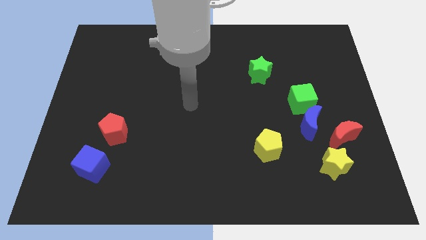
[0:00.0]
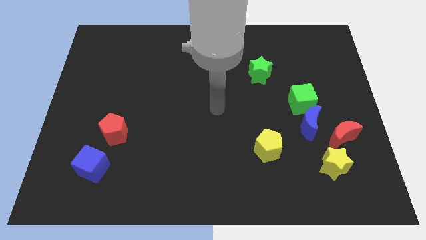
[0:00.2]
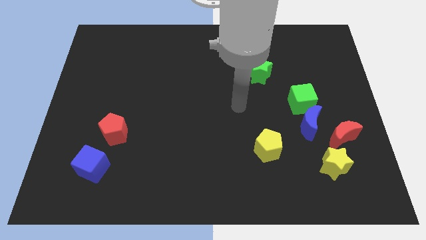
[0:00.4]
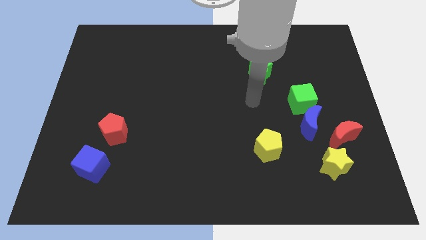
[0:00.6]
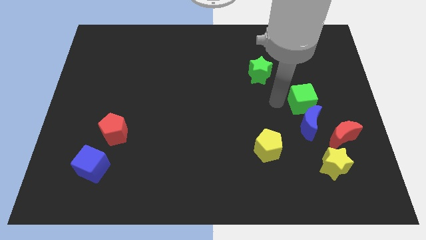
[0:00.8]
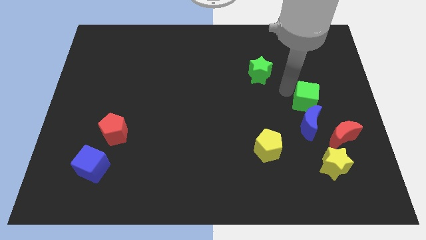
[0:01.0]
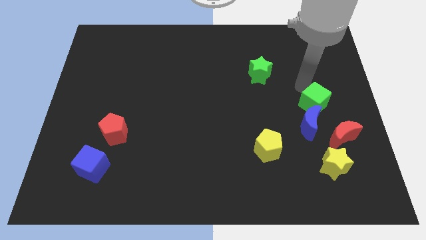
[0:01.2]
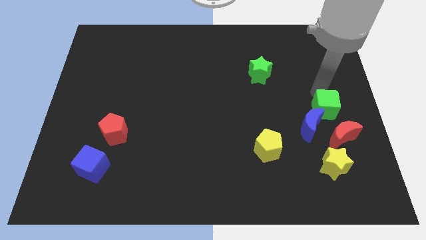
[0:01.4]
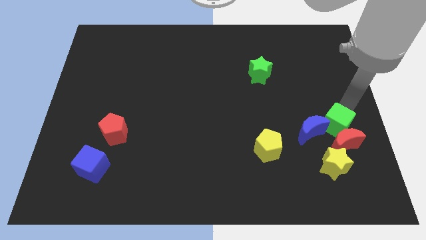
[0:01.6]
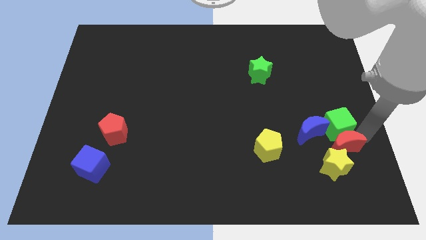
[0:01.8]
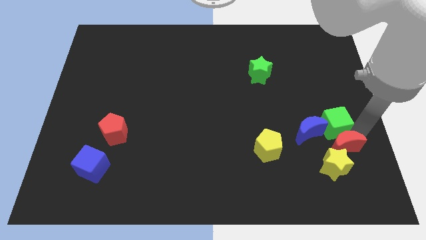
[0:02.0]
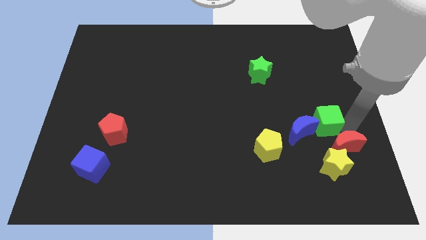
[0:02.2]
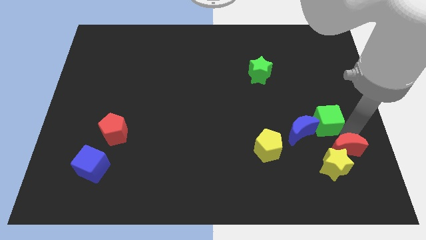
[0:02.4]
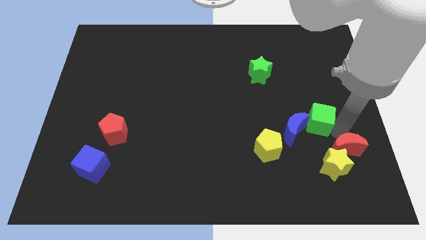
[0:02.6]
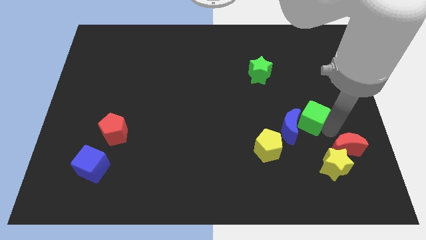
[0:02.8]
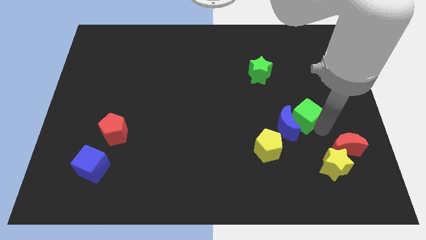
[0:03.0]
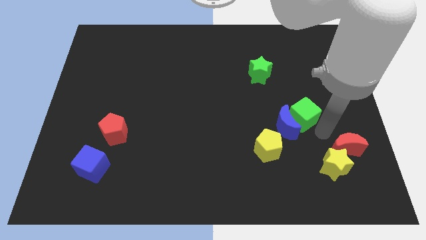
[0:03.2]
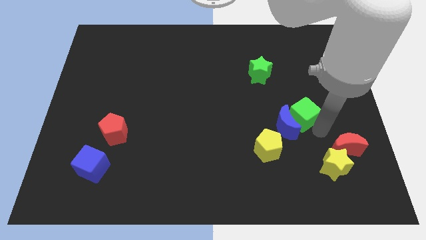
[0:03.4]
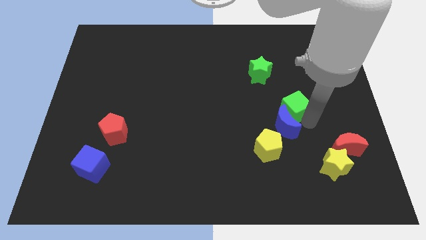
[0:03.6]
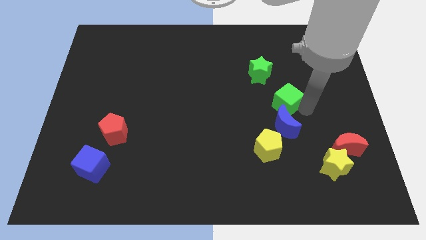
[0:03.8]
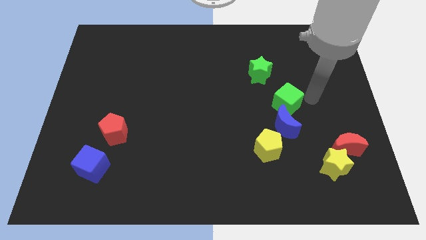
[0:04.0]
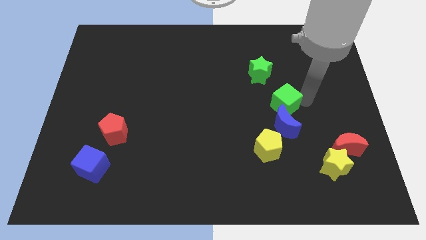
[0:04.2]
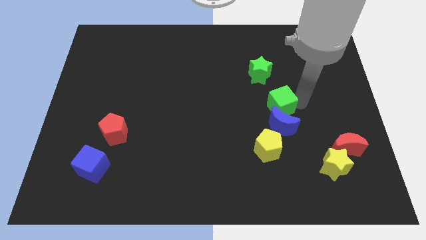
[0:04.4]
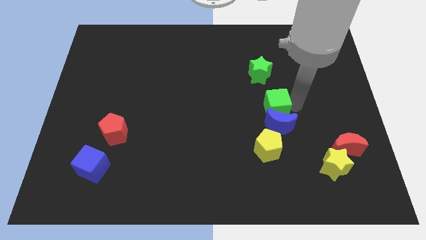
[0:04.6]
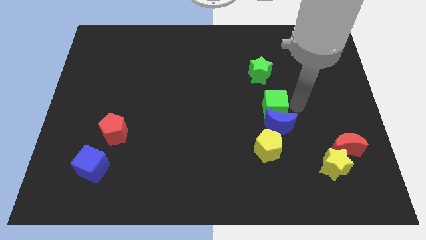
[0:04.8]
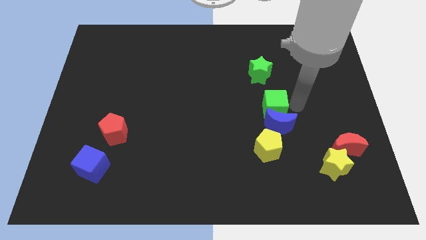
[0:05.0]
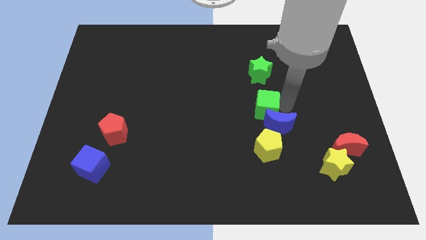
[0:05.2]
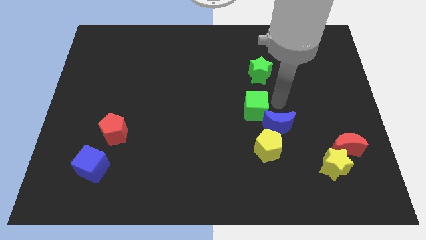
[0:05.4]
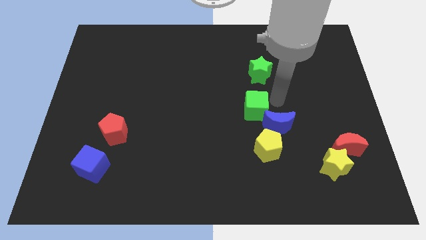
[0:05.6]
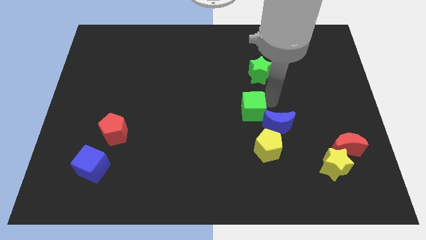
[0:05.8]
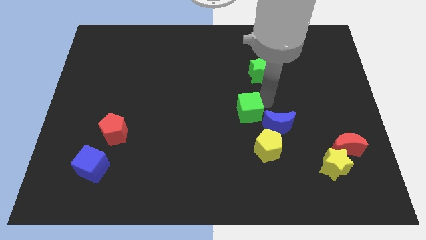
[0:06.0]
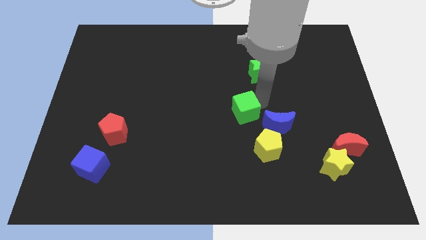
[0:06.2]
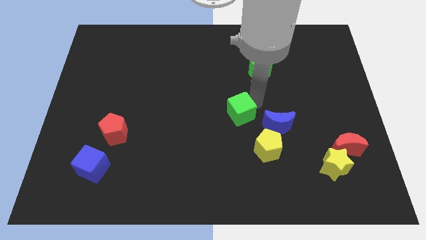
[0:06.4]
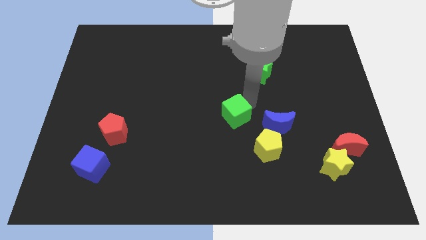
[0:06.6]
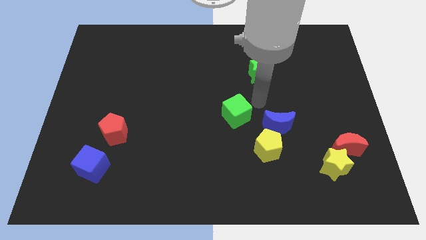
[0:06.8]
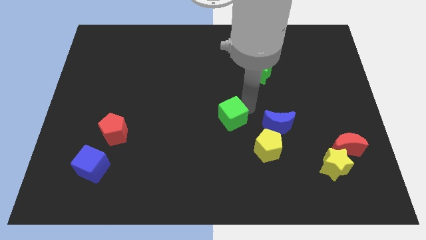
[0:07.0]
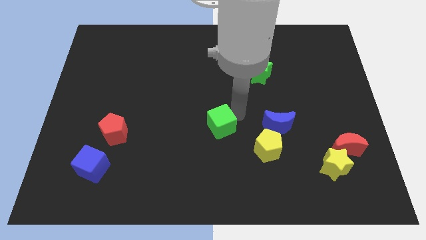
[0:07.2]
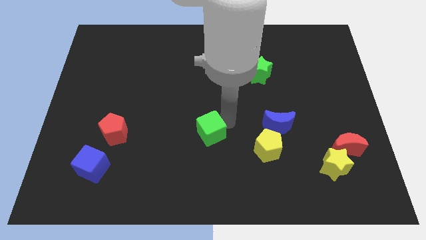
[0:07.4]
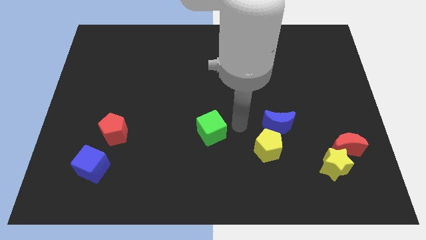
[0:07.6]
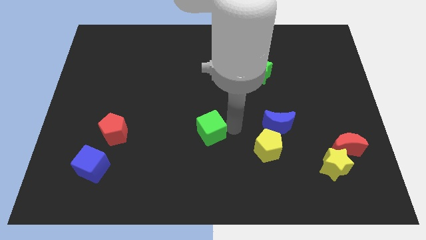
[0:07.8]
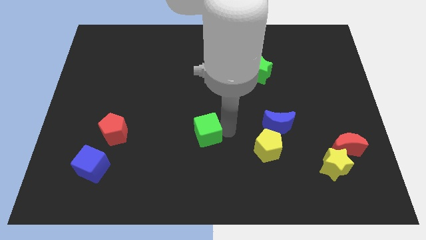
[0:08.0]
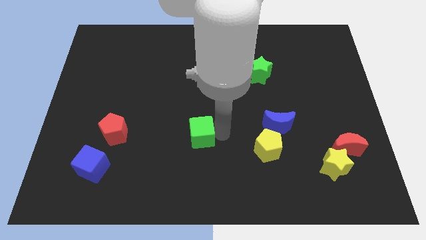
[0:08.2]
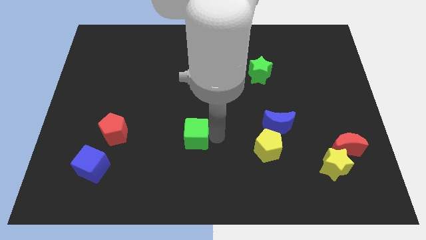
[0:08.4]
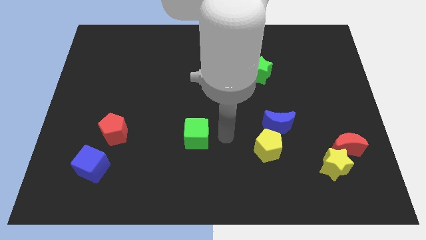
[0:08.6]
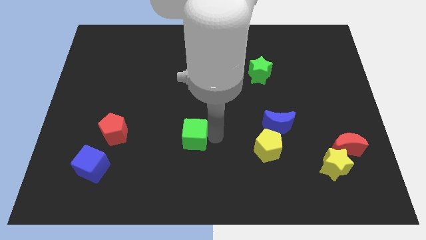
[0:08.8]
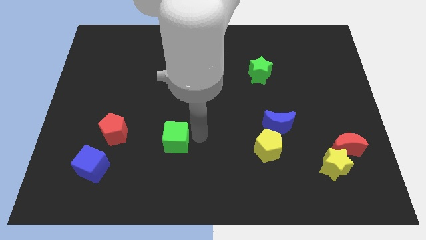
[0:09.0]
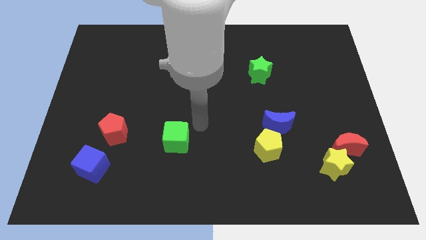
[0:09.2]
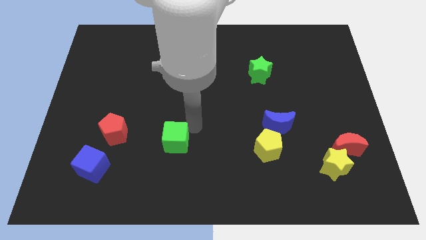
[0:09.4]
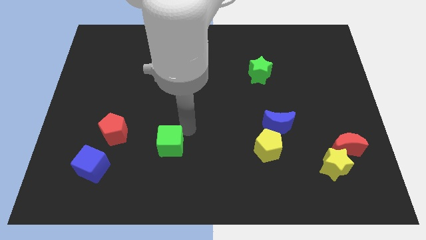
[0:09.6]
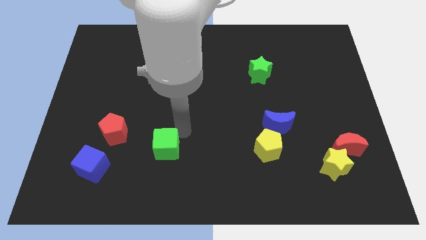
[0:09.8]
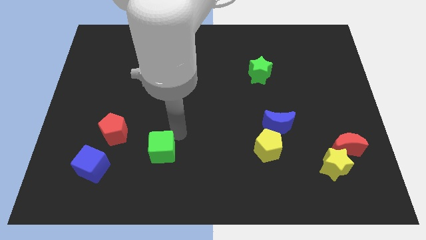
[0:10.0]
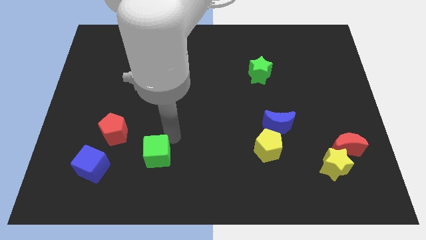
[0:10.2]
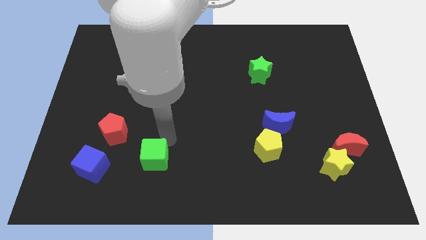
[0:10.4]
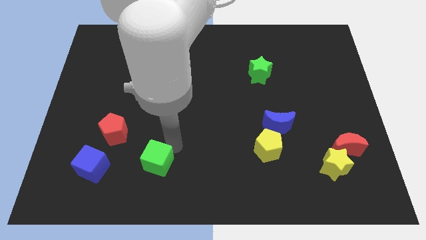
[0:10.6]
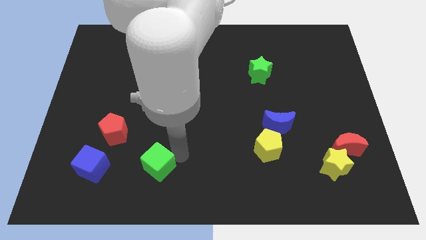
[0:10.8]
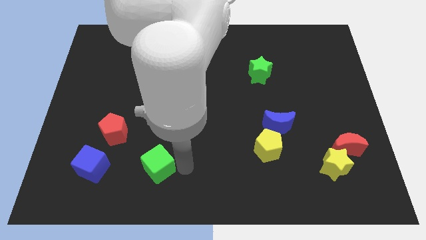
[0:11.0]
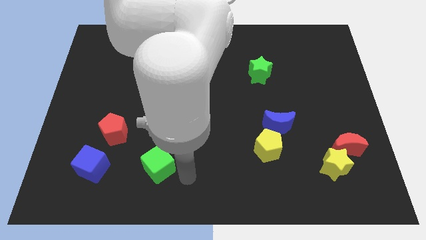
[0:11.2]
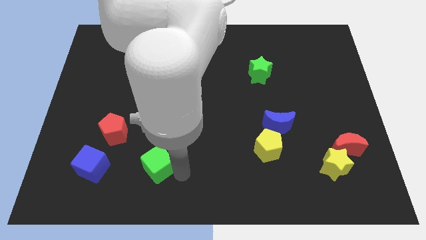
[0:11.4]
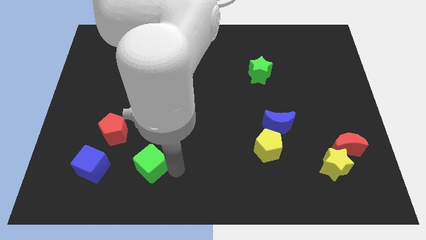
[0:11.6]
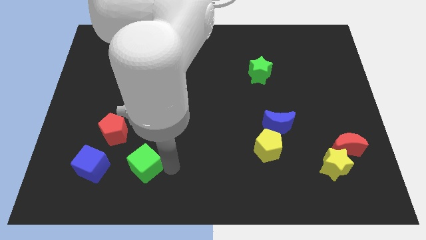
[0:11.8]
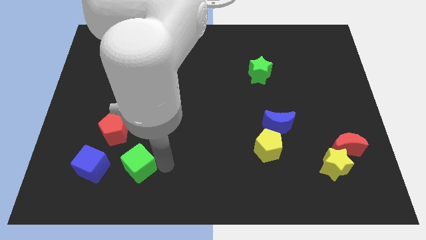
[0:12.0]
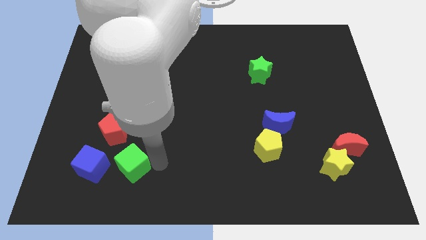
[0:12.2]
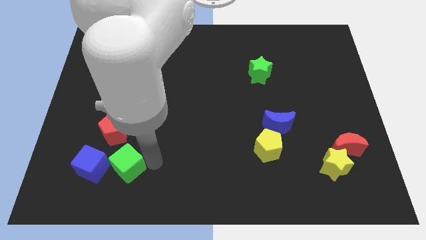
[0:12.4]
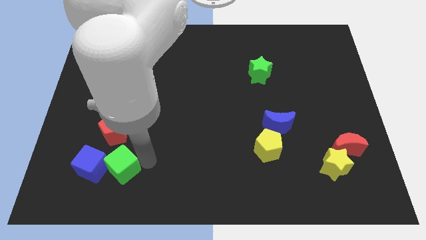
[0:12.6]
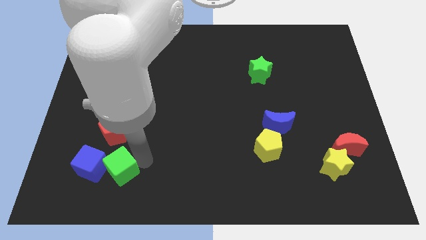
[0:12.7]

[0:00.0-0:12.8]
push the green cube to the blue cube

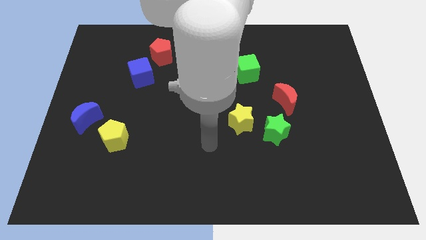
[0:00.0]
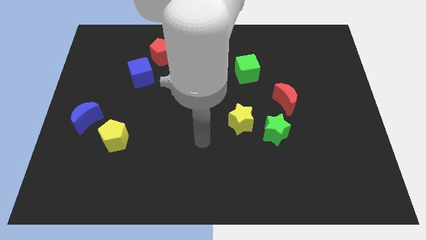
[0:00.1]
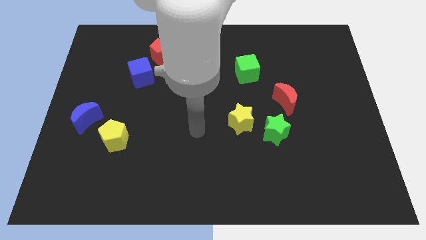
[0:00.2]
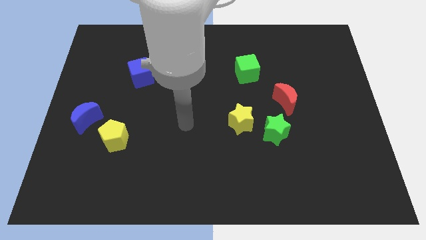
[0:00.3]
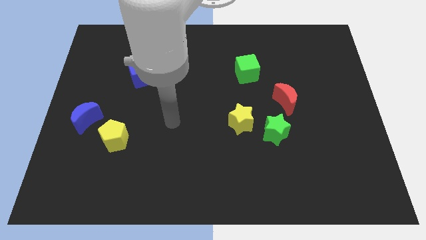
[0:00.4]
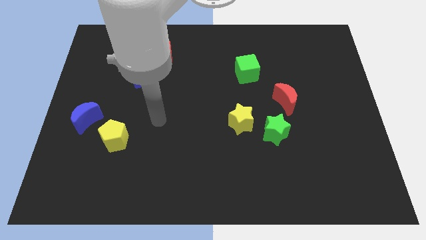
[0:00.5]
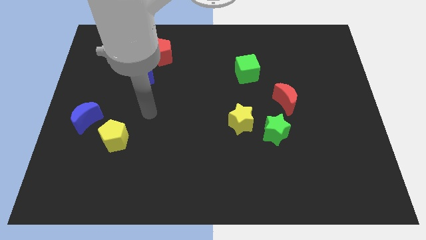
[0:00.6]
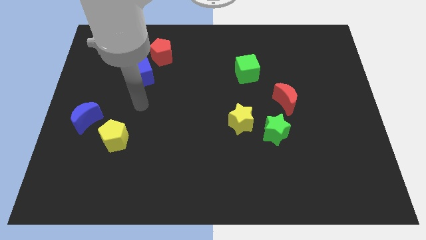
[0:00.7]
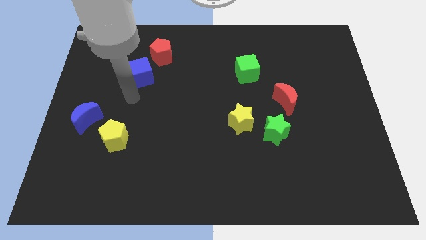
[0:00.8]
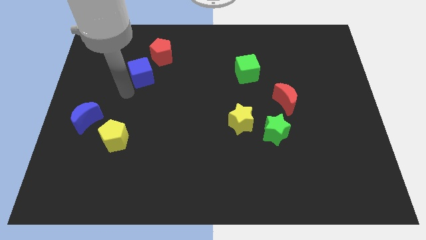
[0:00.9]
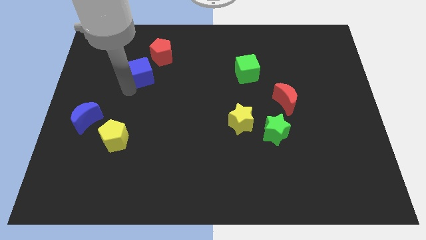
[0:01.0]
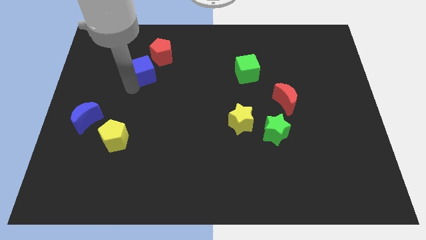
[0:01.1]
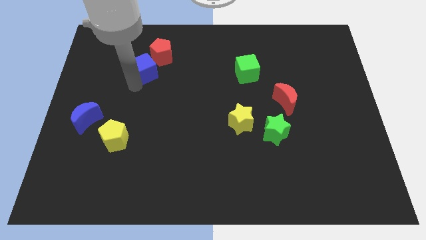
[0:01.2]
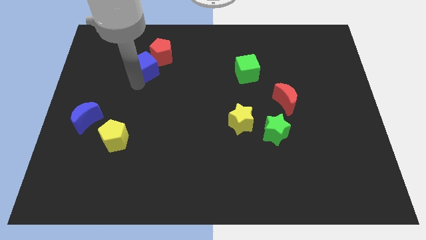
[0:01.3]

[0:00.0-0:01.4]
put the blue cube next to the red pentagon
